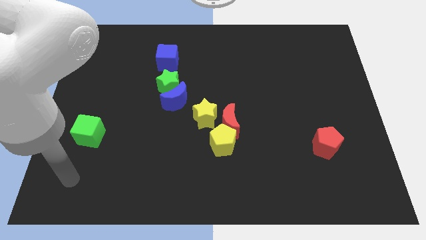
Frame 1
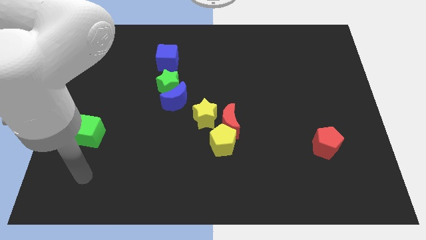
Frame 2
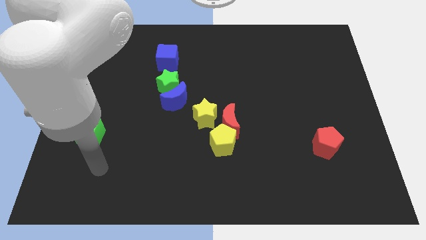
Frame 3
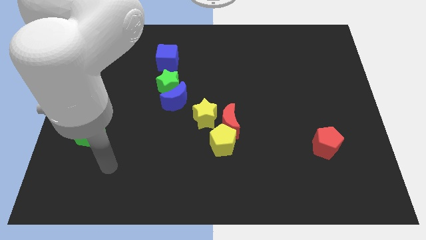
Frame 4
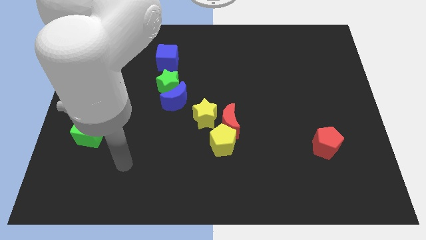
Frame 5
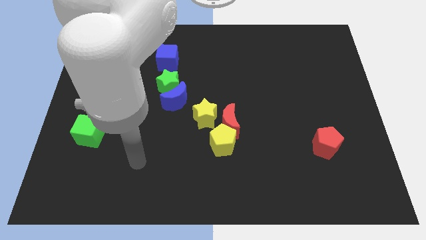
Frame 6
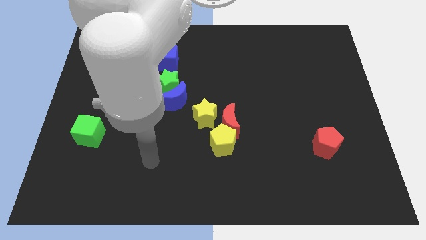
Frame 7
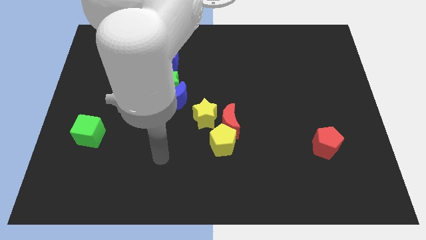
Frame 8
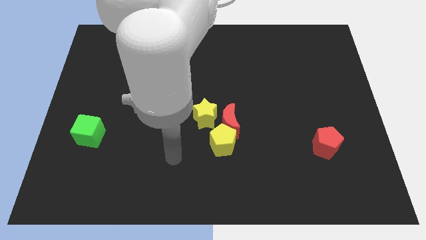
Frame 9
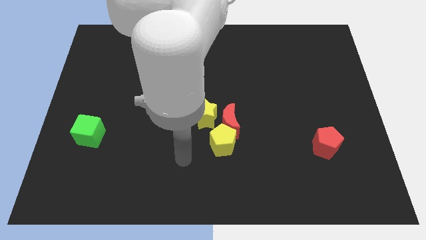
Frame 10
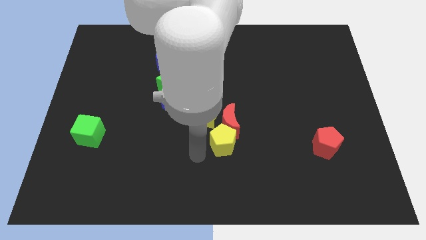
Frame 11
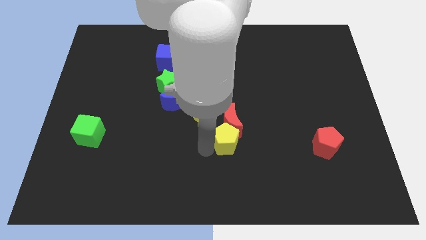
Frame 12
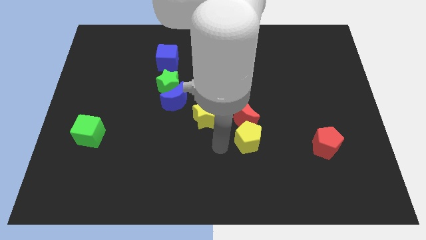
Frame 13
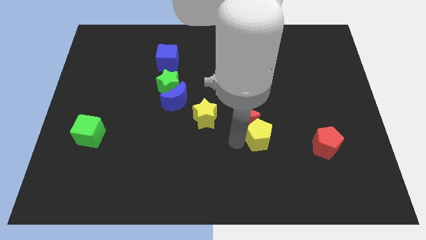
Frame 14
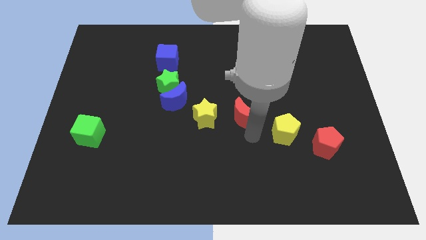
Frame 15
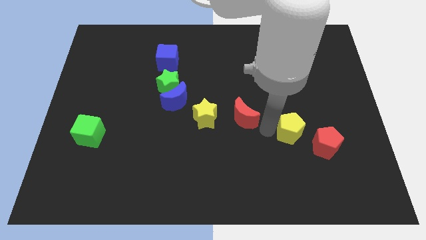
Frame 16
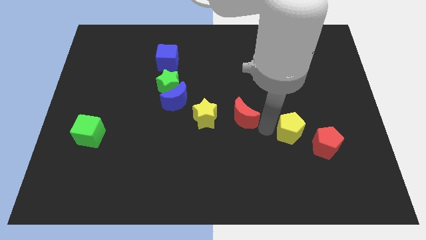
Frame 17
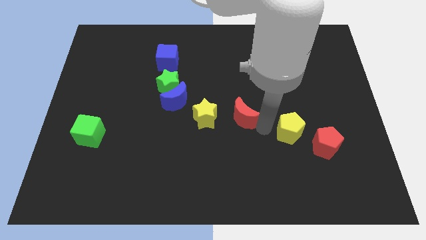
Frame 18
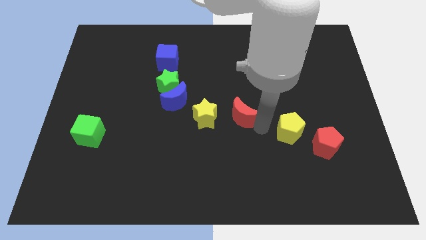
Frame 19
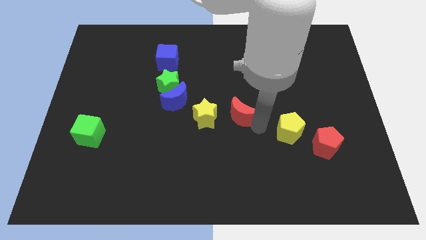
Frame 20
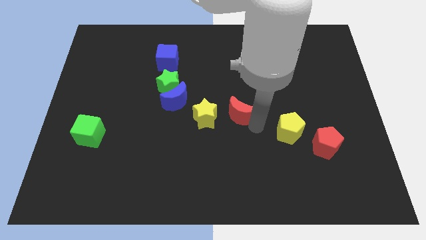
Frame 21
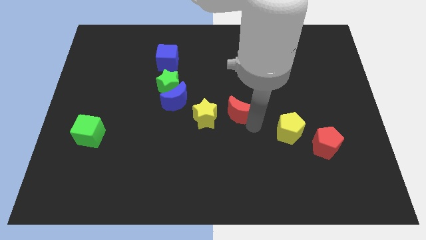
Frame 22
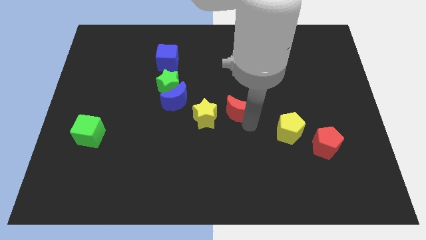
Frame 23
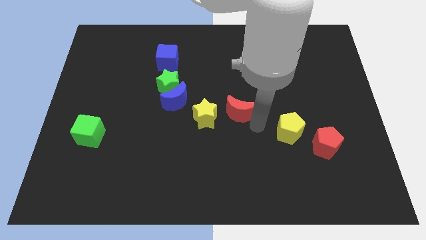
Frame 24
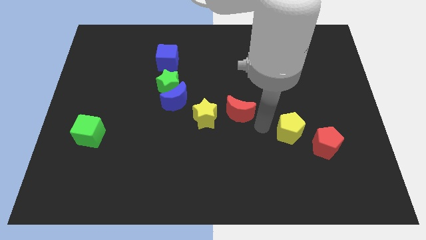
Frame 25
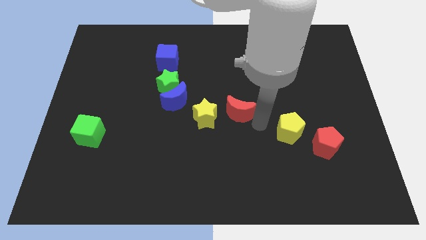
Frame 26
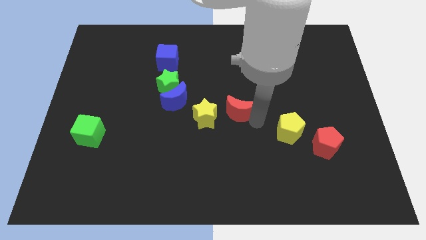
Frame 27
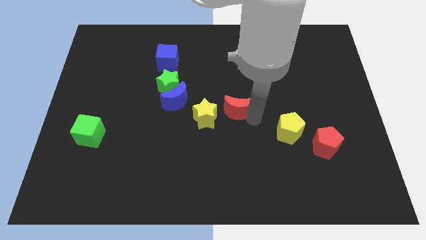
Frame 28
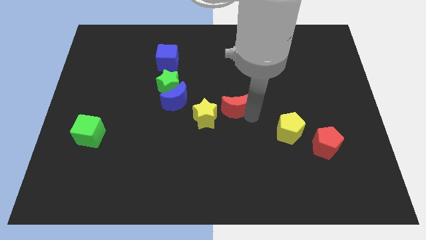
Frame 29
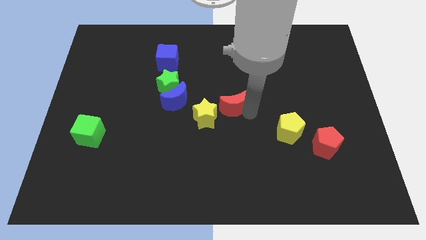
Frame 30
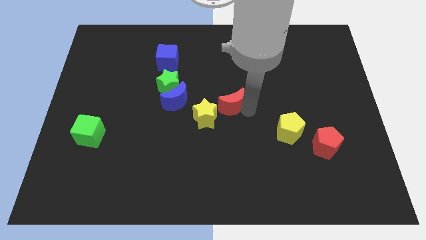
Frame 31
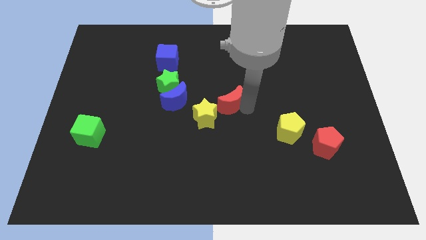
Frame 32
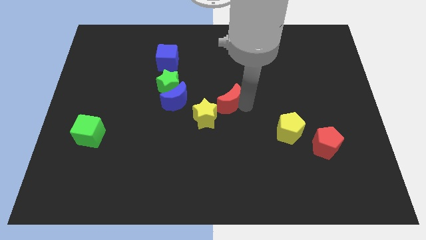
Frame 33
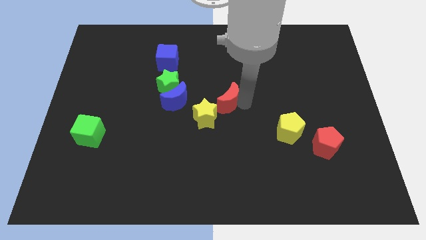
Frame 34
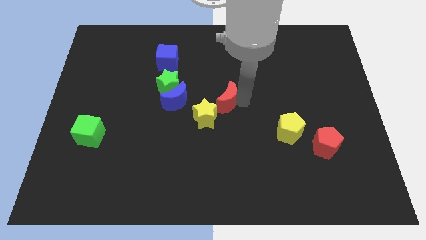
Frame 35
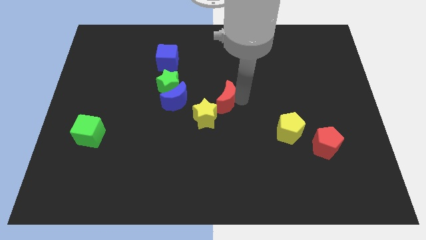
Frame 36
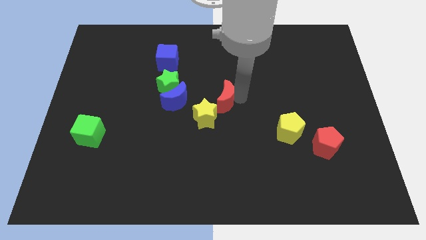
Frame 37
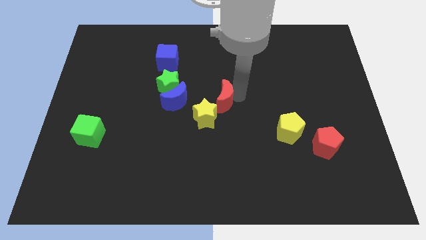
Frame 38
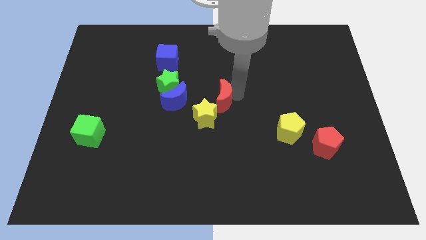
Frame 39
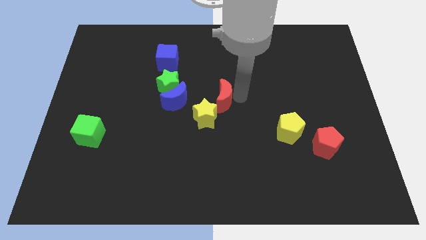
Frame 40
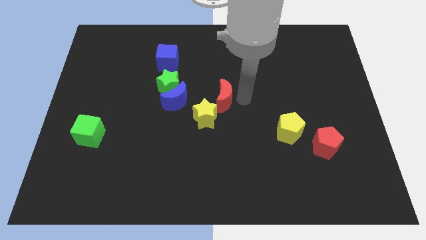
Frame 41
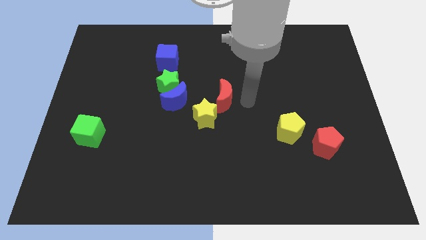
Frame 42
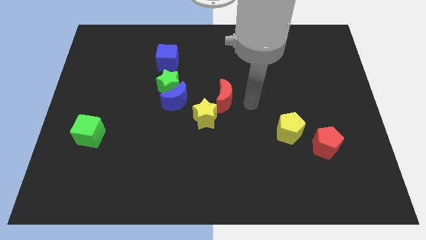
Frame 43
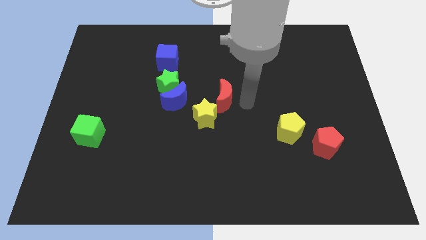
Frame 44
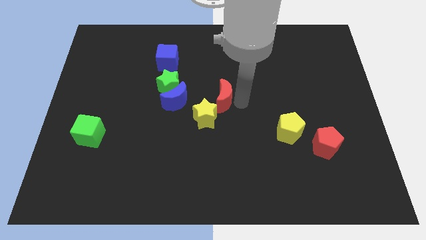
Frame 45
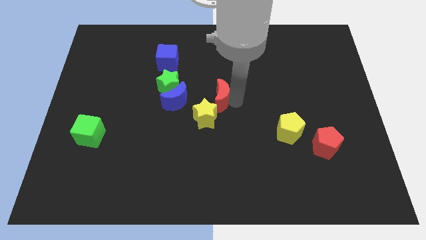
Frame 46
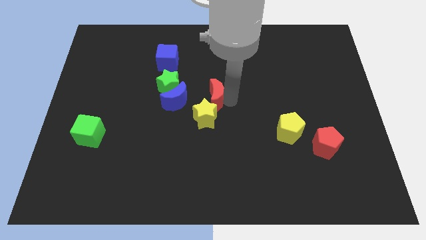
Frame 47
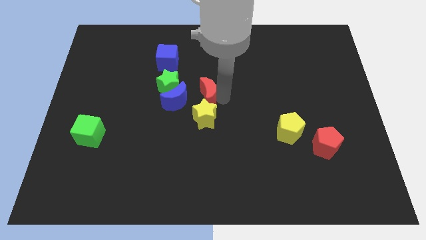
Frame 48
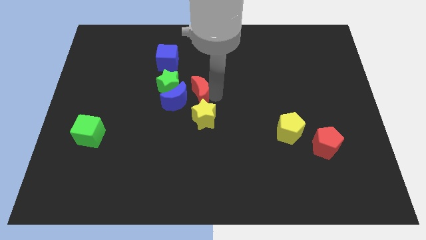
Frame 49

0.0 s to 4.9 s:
move the red moon next to the blue moon

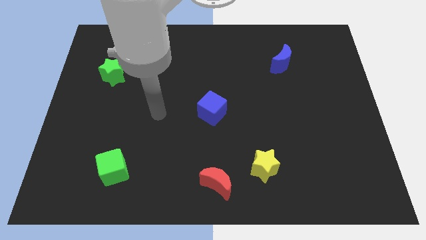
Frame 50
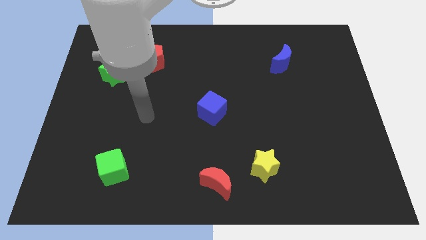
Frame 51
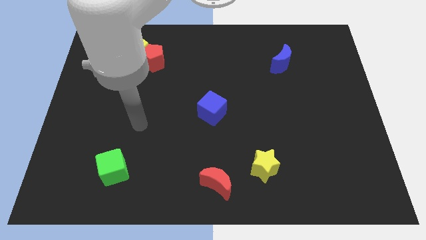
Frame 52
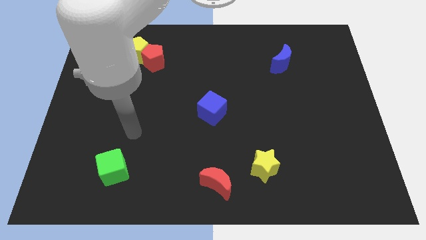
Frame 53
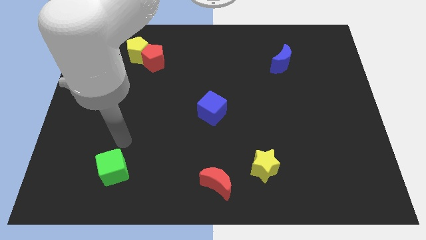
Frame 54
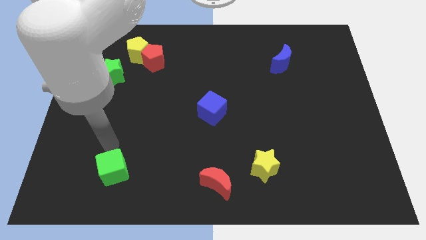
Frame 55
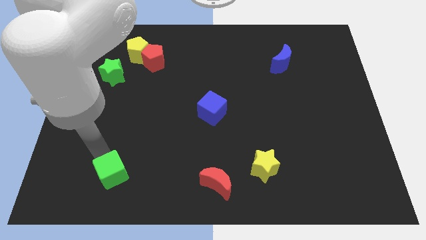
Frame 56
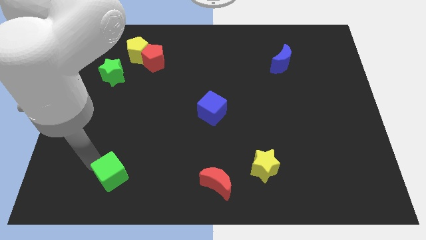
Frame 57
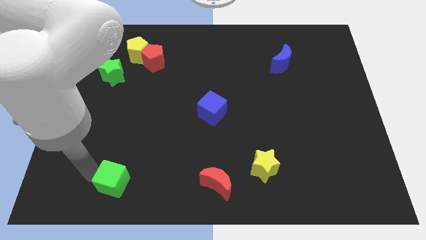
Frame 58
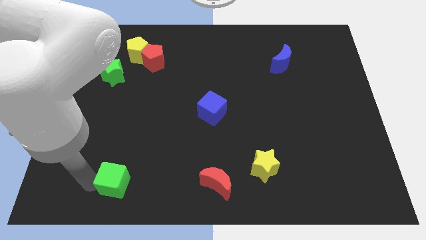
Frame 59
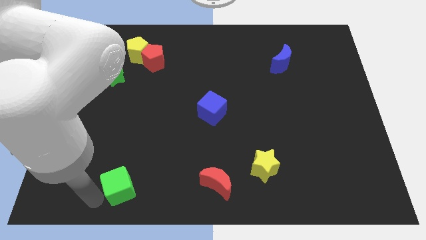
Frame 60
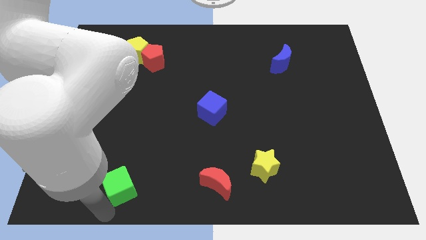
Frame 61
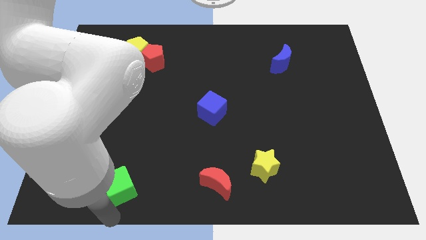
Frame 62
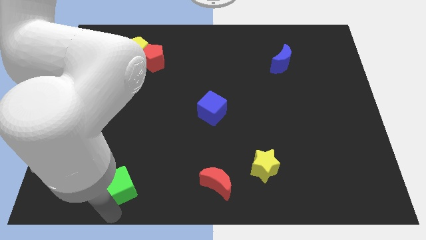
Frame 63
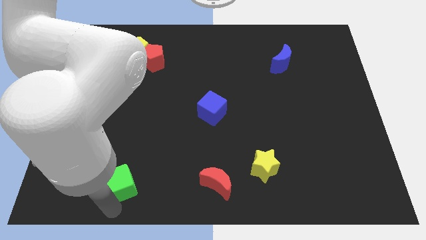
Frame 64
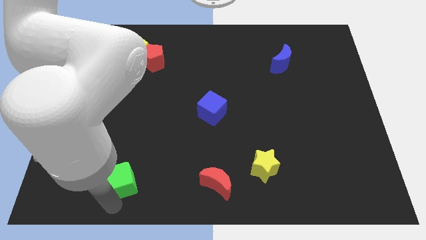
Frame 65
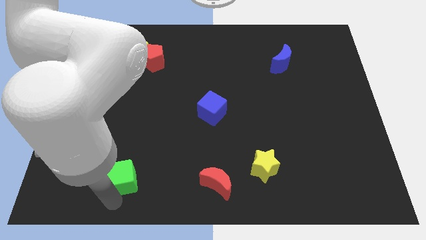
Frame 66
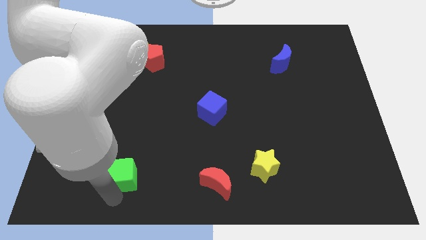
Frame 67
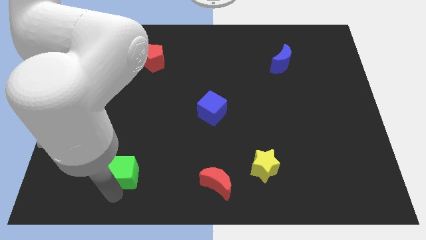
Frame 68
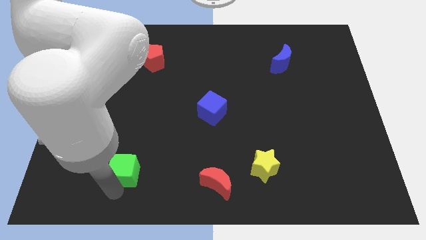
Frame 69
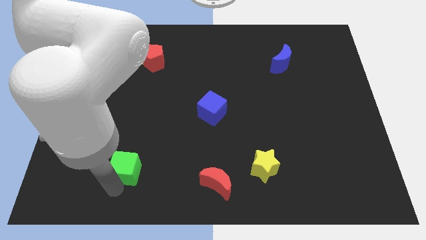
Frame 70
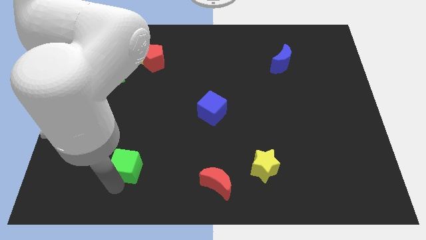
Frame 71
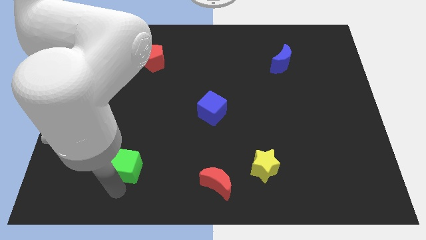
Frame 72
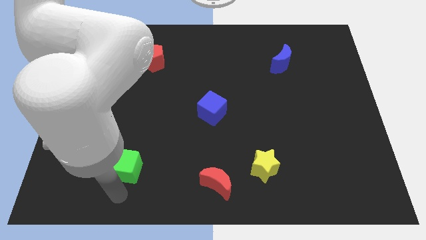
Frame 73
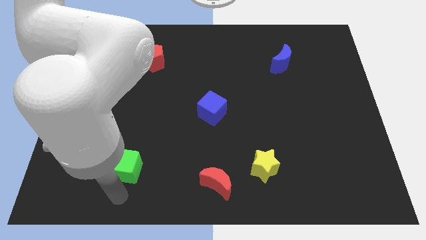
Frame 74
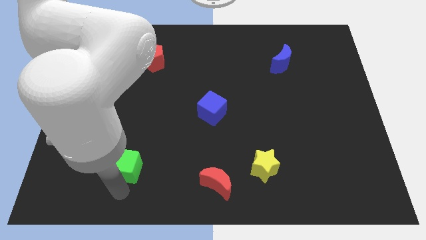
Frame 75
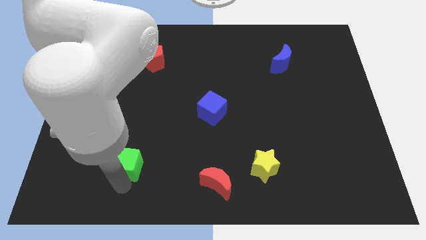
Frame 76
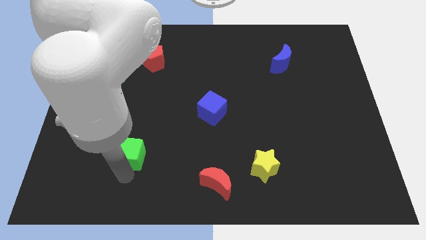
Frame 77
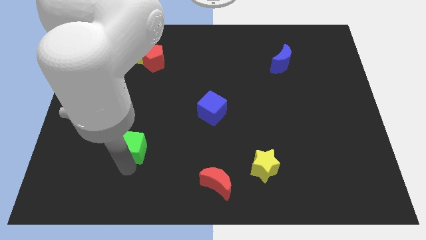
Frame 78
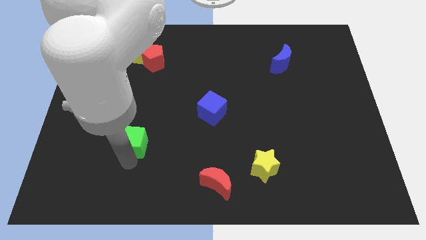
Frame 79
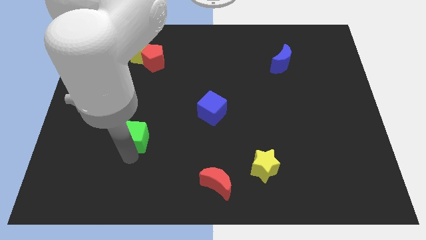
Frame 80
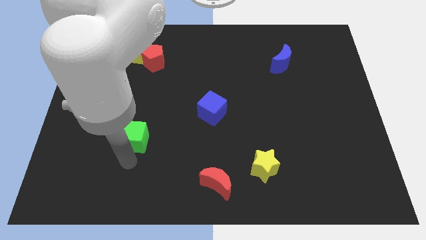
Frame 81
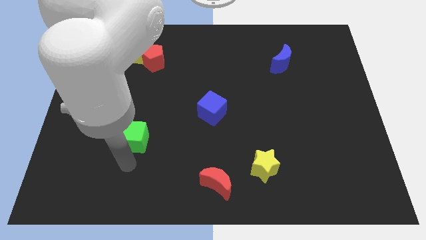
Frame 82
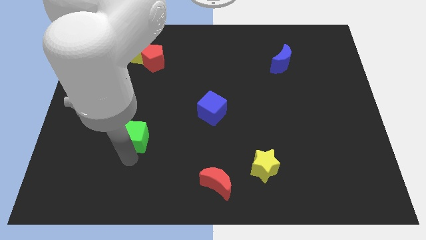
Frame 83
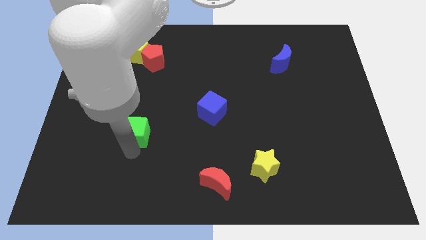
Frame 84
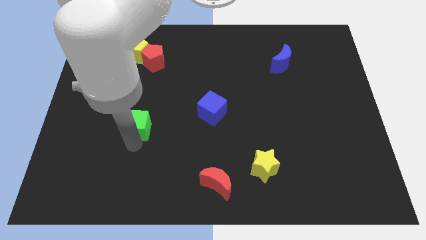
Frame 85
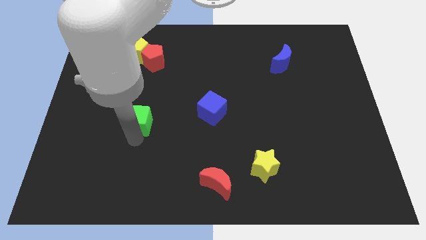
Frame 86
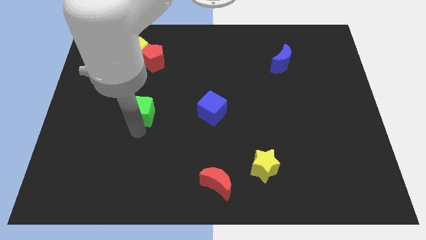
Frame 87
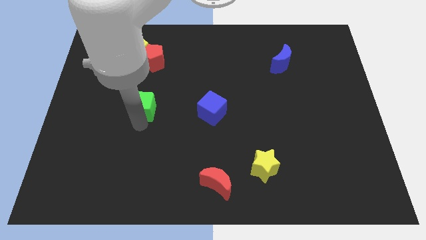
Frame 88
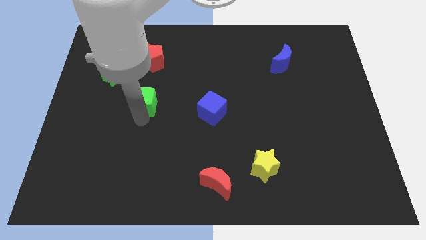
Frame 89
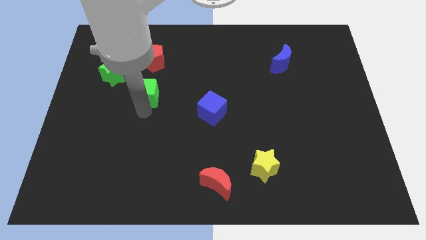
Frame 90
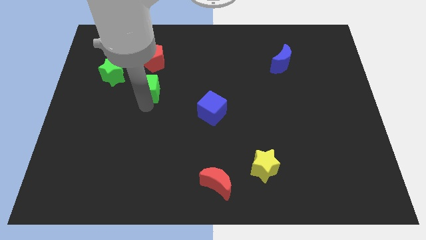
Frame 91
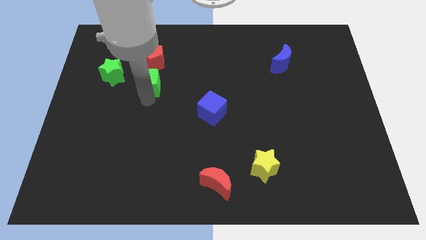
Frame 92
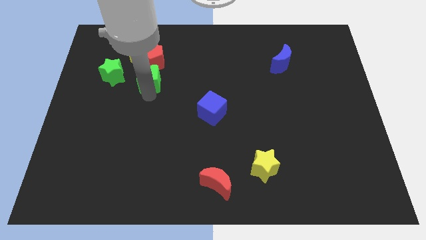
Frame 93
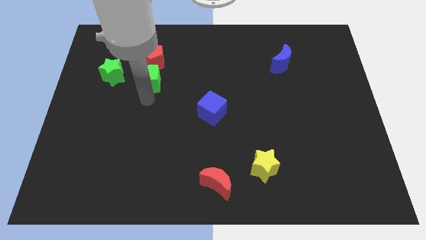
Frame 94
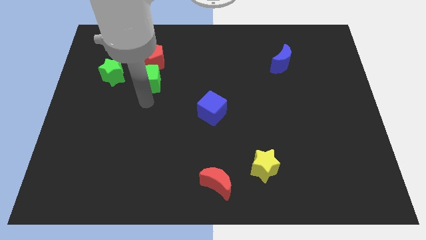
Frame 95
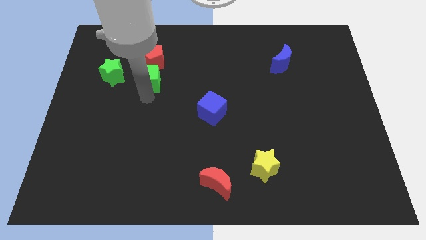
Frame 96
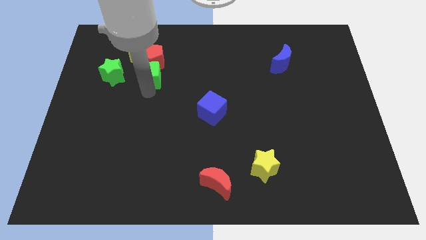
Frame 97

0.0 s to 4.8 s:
slide the green cube to the red pentagon
